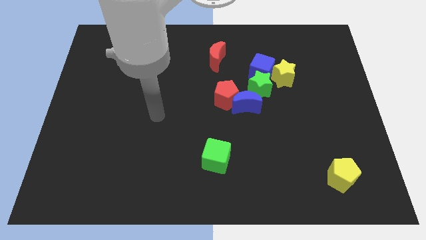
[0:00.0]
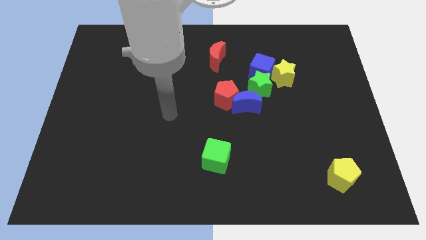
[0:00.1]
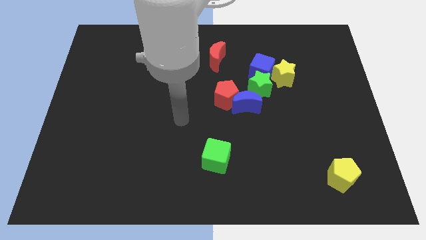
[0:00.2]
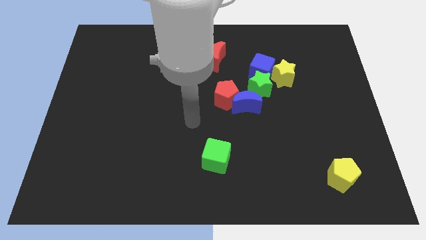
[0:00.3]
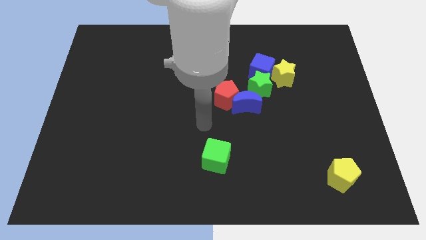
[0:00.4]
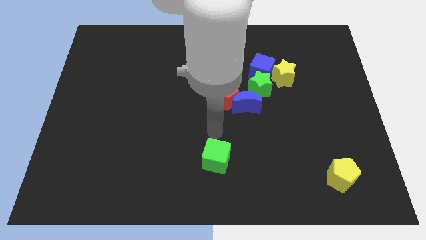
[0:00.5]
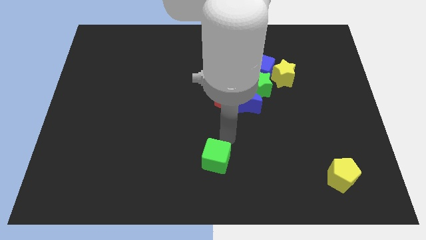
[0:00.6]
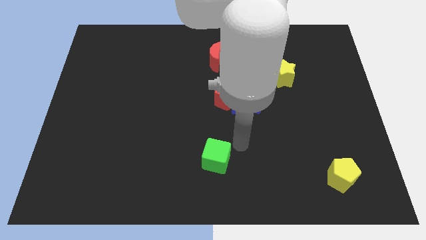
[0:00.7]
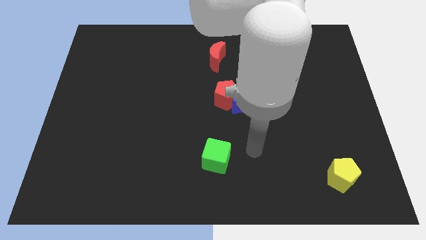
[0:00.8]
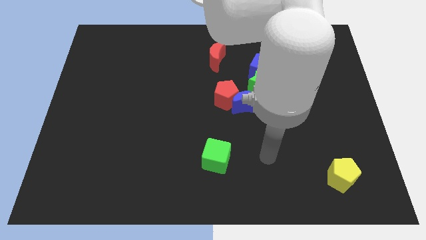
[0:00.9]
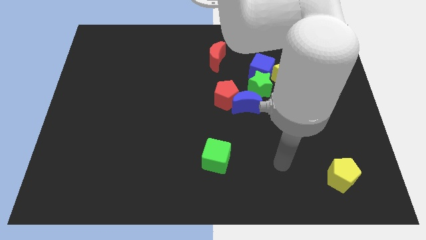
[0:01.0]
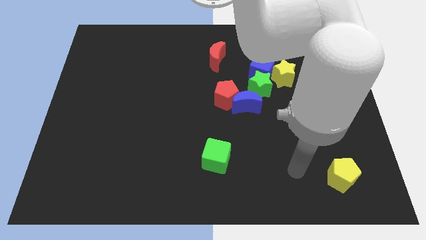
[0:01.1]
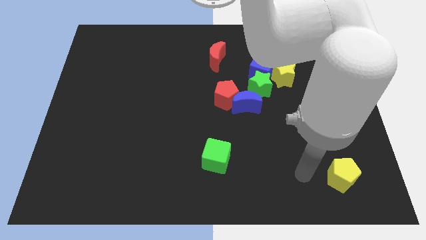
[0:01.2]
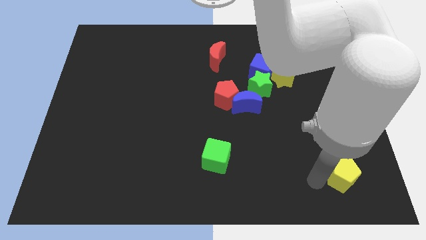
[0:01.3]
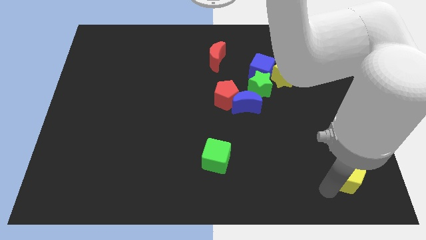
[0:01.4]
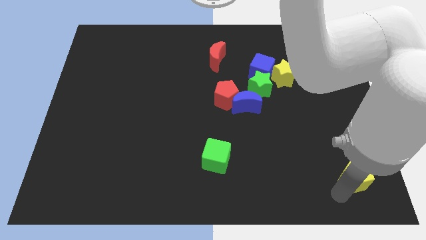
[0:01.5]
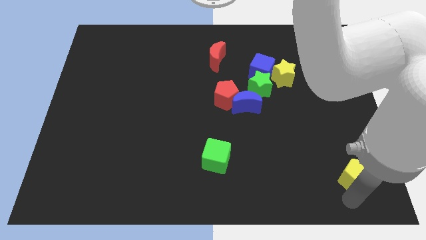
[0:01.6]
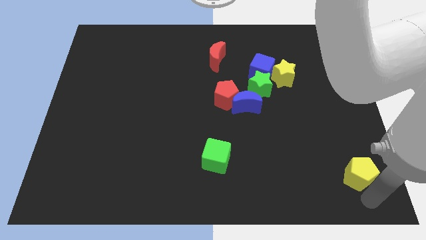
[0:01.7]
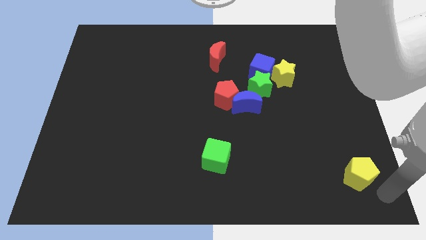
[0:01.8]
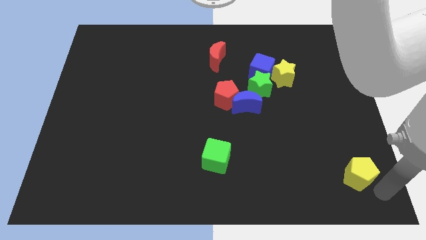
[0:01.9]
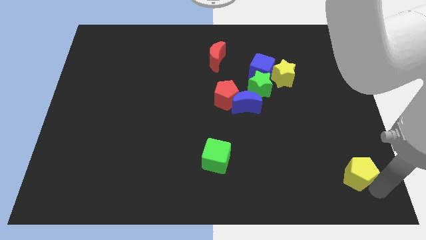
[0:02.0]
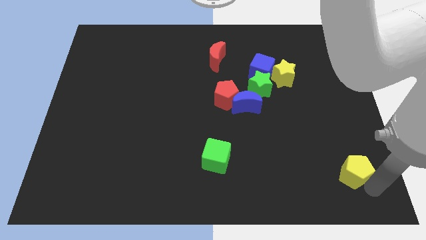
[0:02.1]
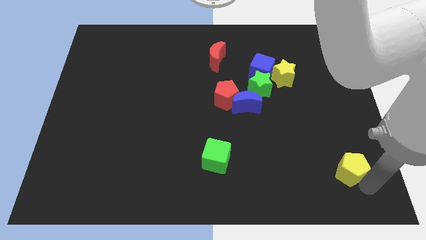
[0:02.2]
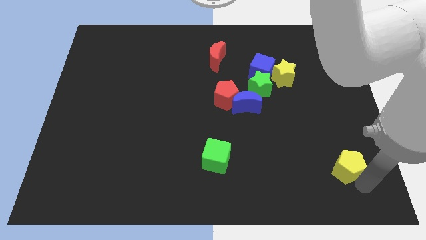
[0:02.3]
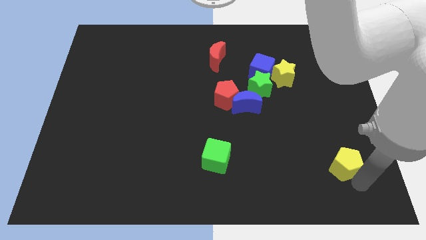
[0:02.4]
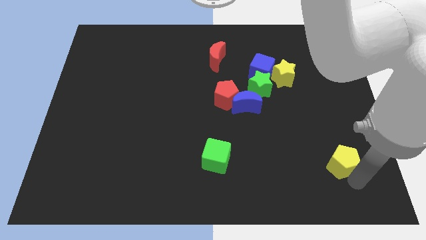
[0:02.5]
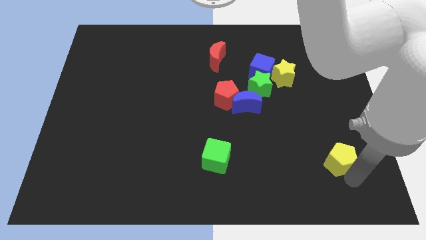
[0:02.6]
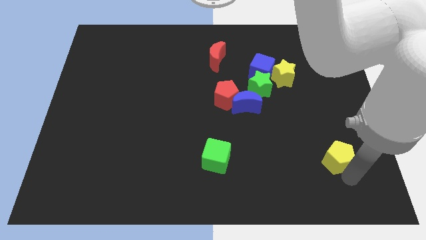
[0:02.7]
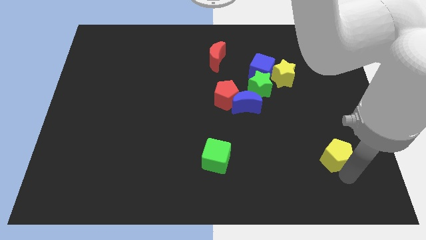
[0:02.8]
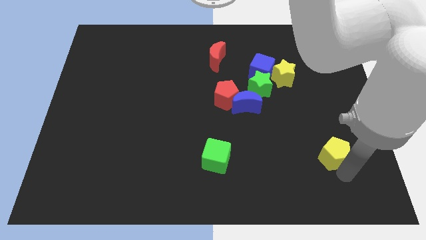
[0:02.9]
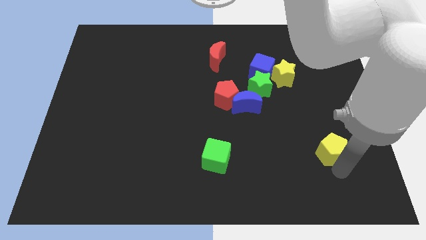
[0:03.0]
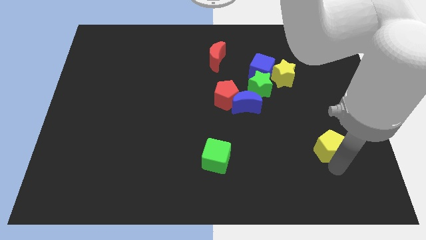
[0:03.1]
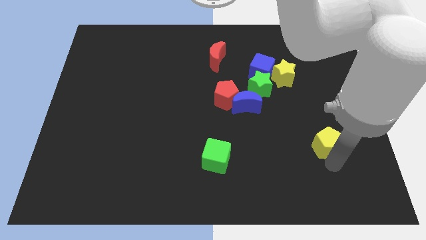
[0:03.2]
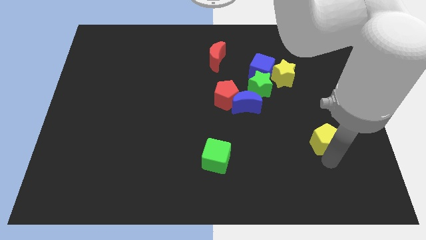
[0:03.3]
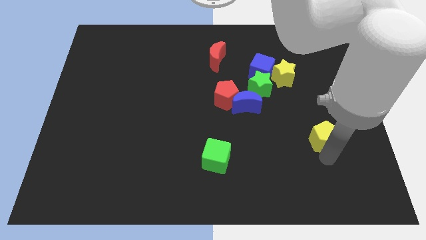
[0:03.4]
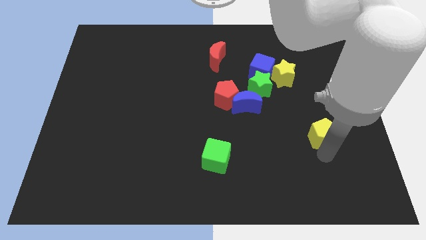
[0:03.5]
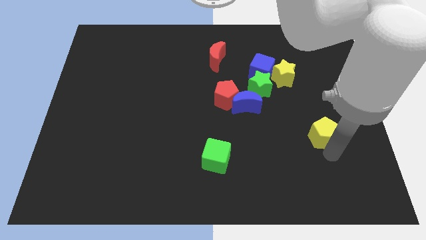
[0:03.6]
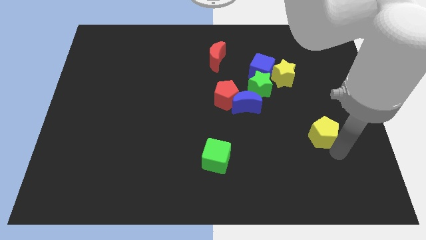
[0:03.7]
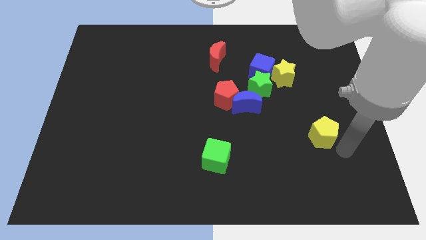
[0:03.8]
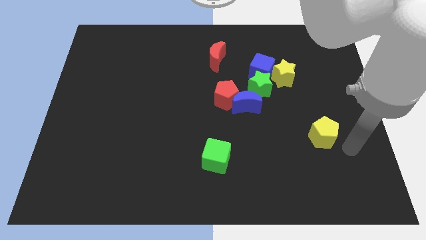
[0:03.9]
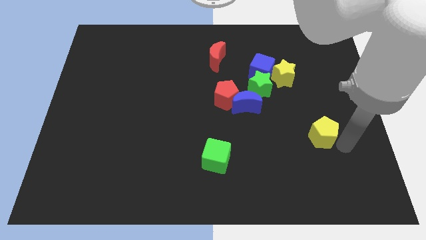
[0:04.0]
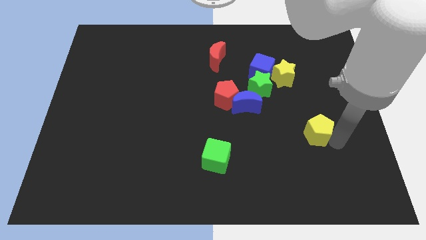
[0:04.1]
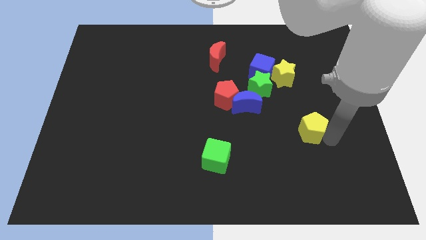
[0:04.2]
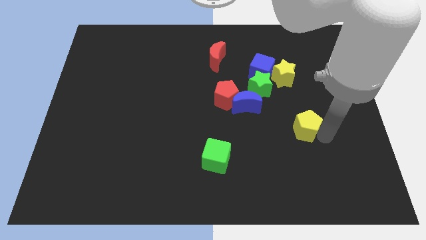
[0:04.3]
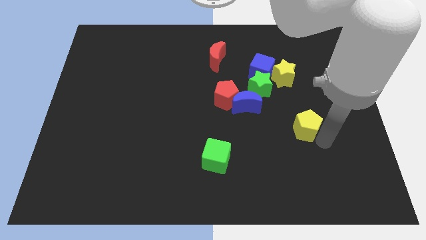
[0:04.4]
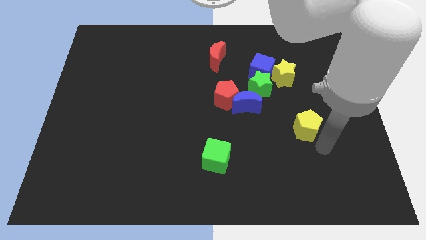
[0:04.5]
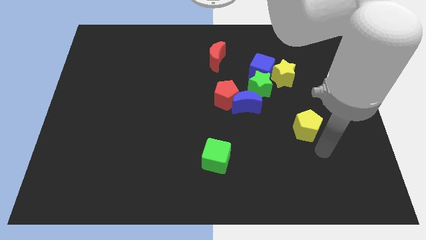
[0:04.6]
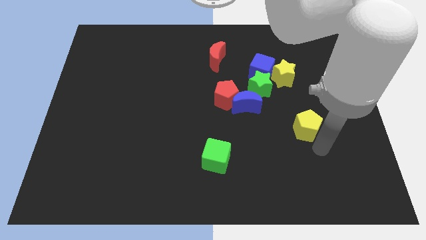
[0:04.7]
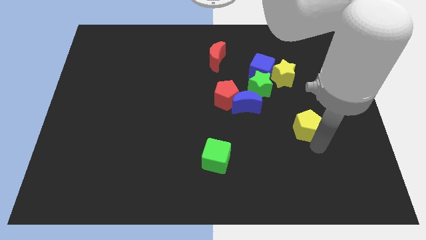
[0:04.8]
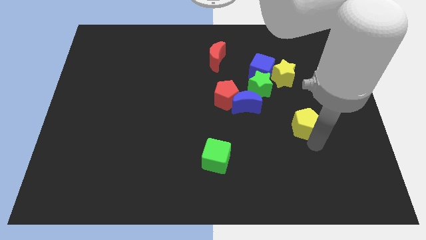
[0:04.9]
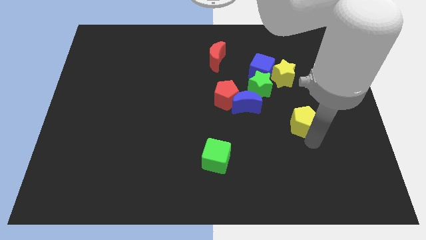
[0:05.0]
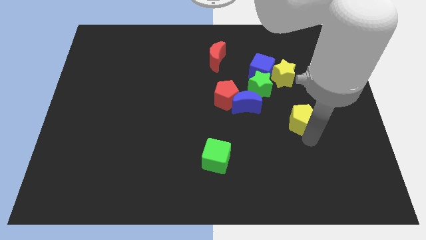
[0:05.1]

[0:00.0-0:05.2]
push the yellow pentagon just right of the blue moon

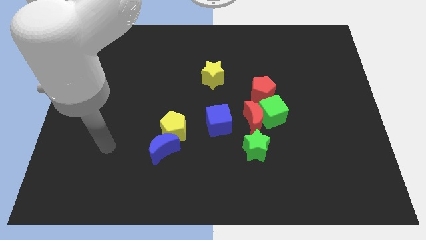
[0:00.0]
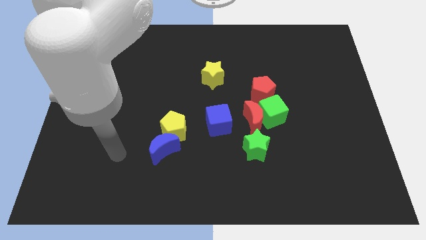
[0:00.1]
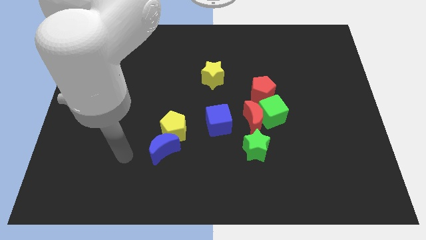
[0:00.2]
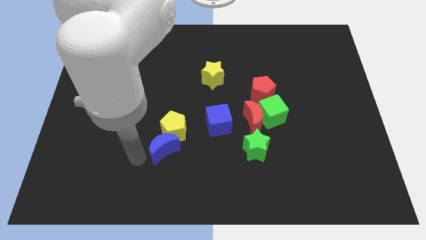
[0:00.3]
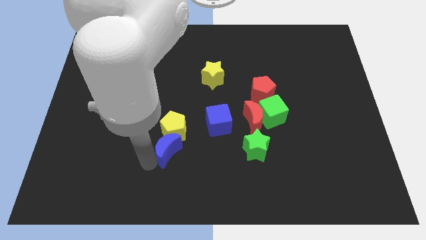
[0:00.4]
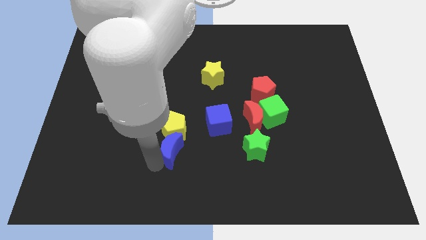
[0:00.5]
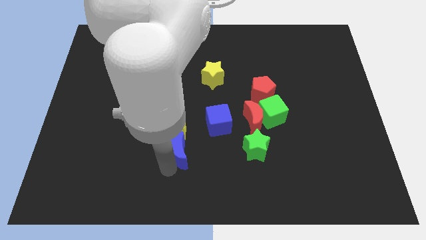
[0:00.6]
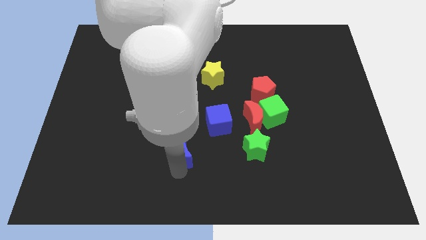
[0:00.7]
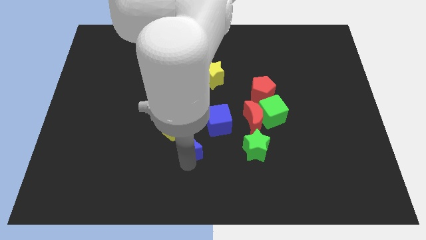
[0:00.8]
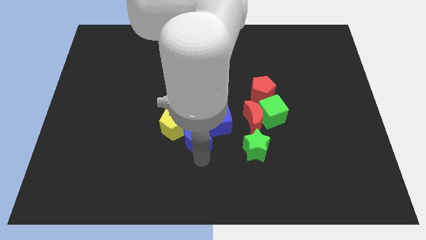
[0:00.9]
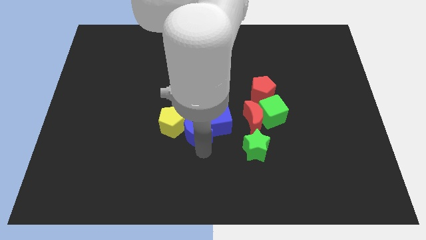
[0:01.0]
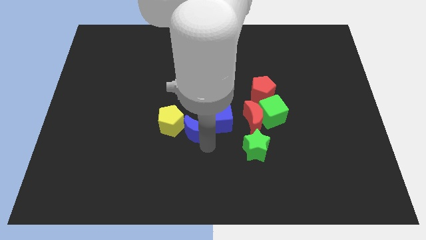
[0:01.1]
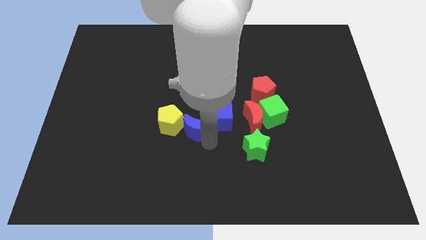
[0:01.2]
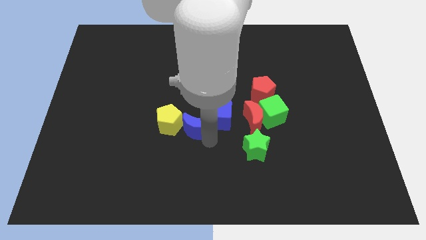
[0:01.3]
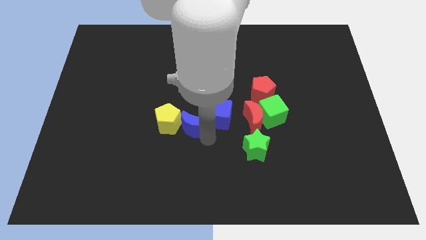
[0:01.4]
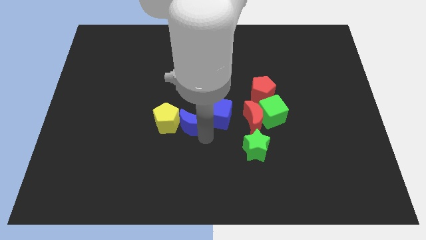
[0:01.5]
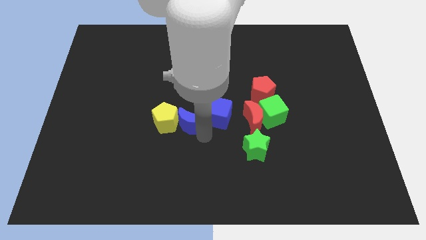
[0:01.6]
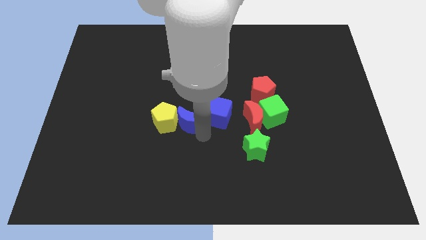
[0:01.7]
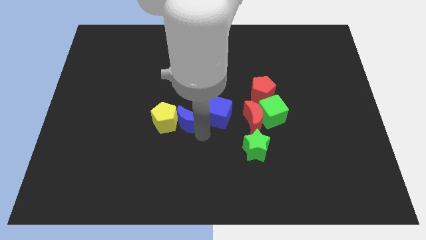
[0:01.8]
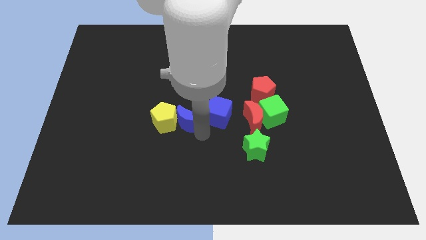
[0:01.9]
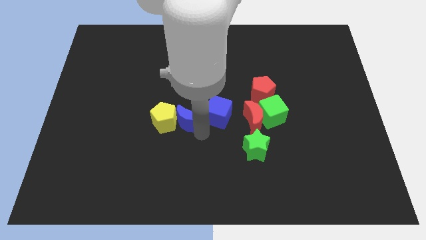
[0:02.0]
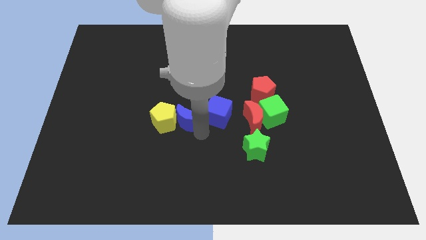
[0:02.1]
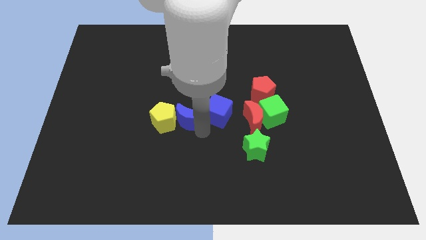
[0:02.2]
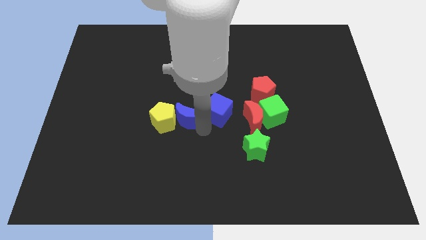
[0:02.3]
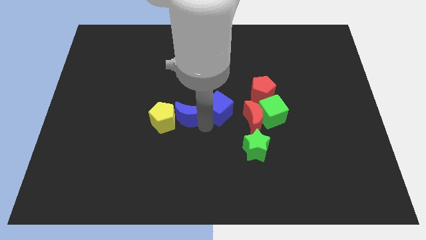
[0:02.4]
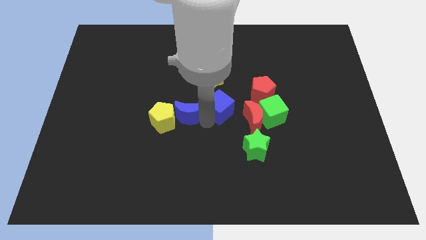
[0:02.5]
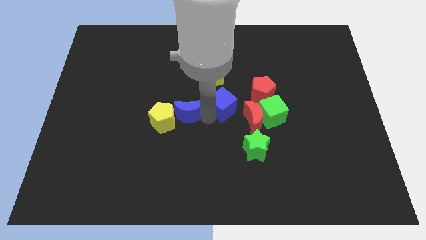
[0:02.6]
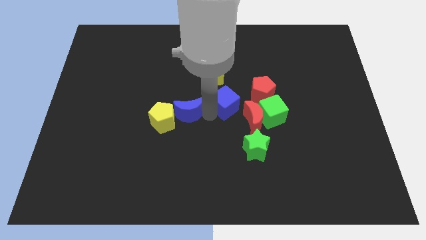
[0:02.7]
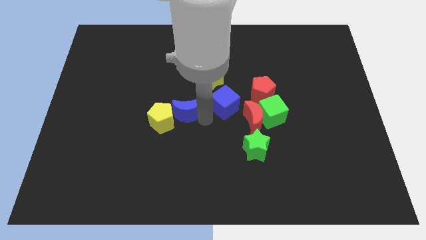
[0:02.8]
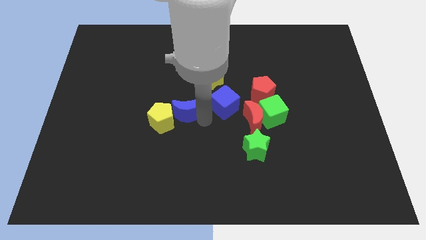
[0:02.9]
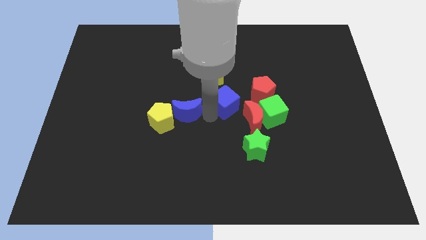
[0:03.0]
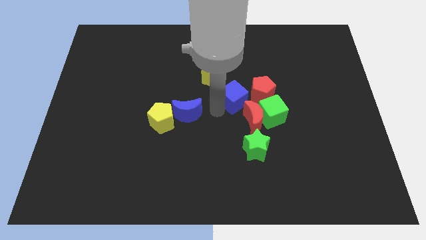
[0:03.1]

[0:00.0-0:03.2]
move the blue cube above the red moon
